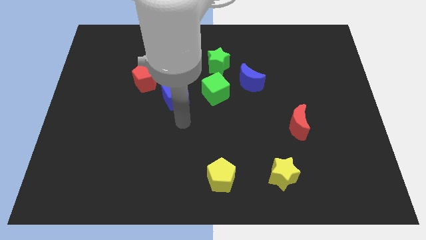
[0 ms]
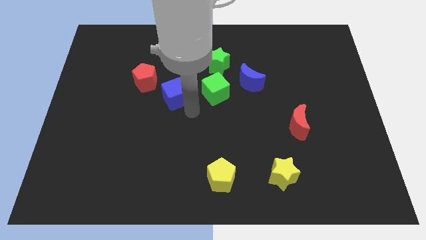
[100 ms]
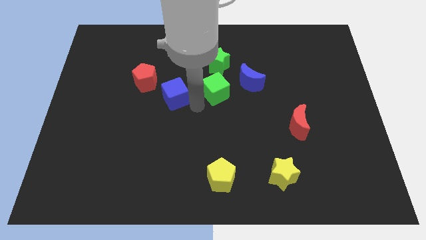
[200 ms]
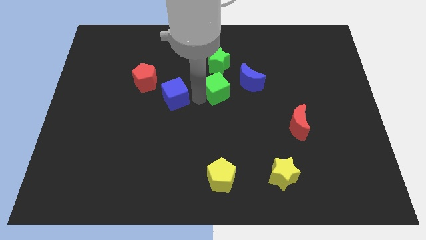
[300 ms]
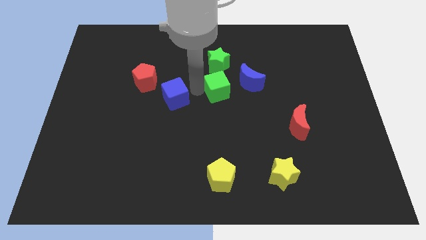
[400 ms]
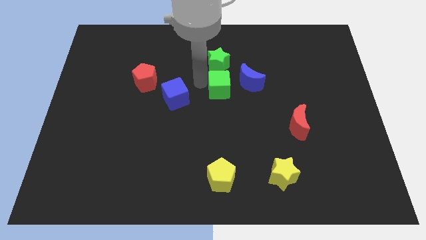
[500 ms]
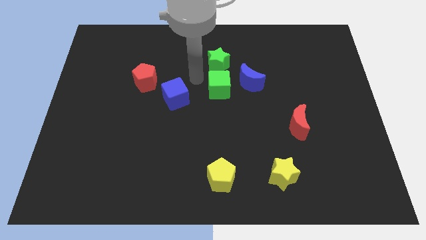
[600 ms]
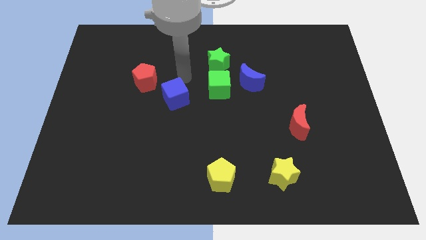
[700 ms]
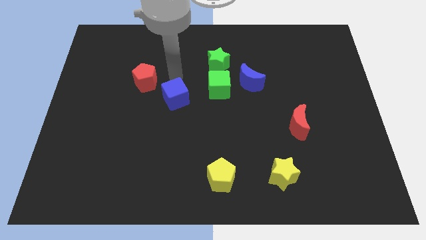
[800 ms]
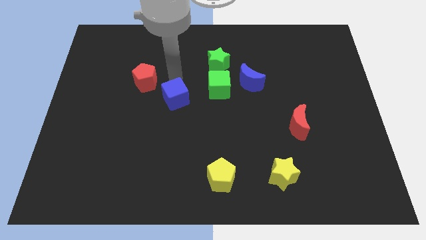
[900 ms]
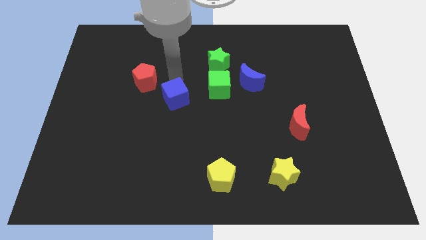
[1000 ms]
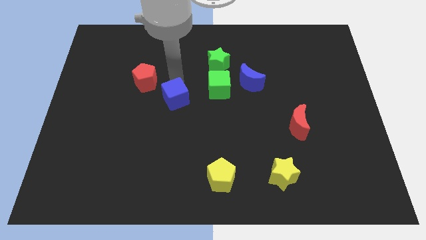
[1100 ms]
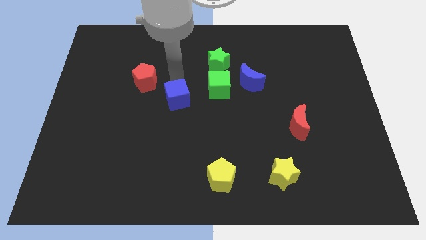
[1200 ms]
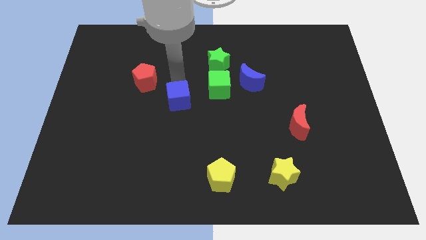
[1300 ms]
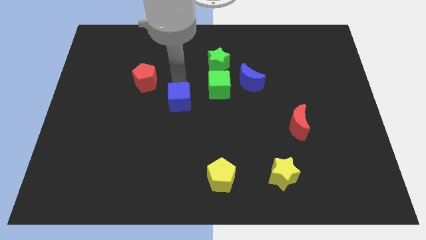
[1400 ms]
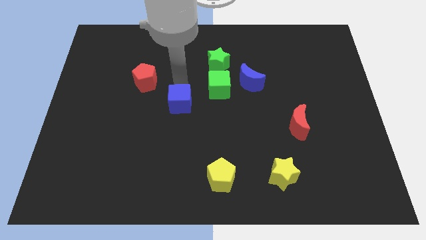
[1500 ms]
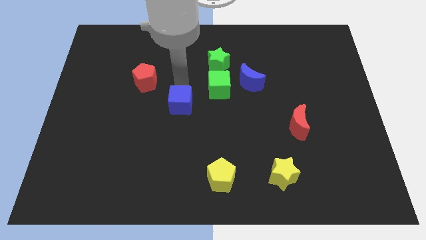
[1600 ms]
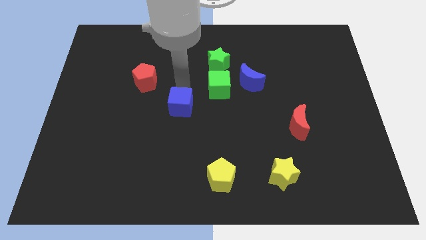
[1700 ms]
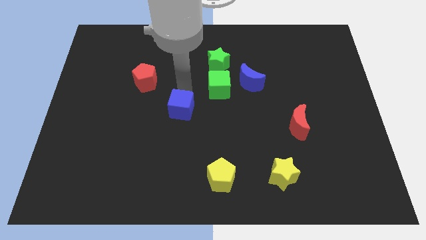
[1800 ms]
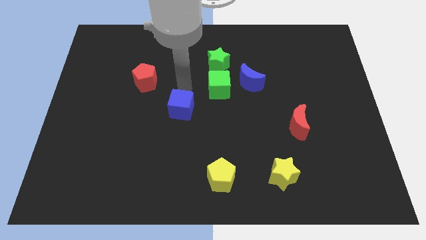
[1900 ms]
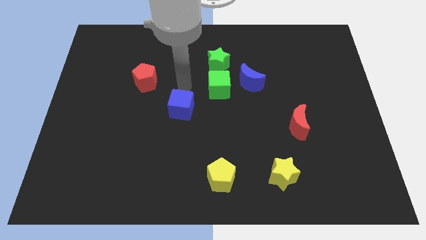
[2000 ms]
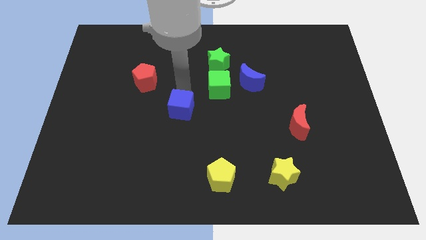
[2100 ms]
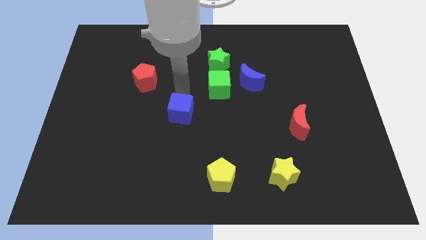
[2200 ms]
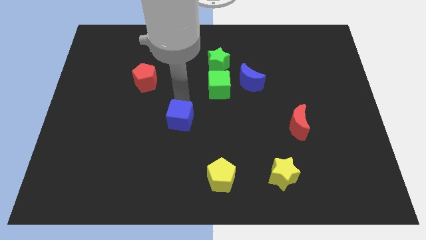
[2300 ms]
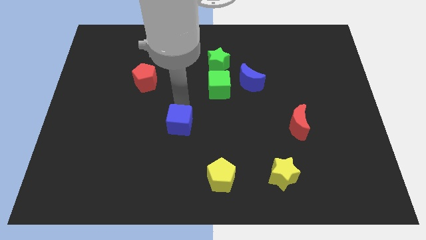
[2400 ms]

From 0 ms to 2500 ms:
move the blue cube downwards a bit

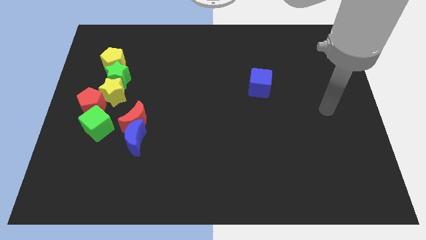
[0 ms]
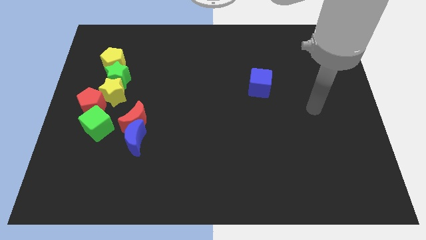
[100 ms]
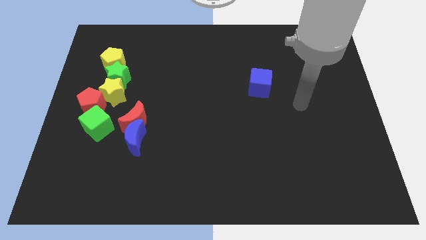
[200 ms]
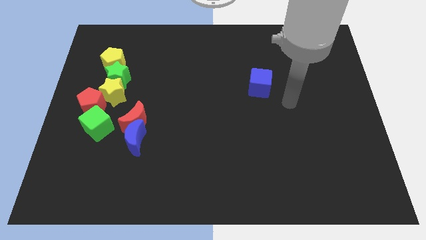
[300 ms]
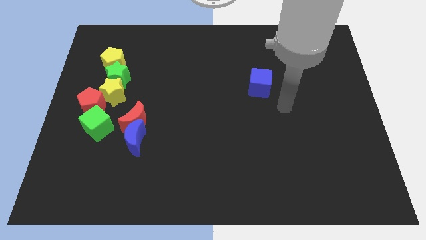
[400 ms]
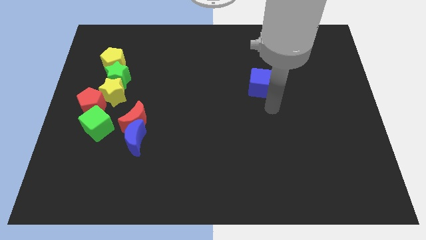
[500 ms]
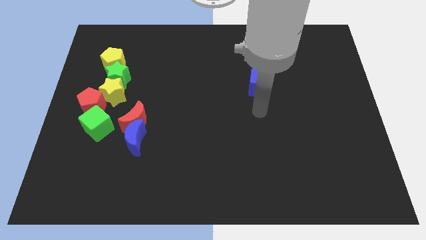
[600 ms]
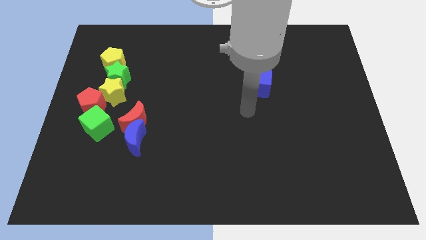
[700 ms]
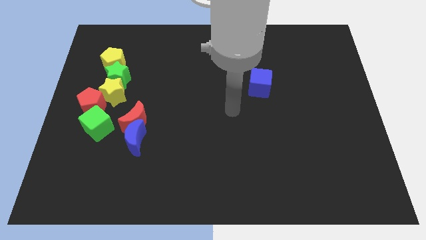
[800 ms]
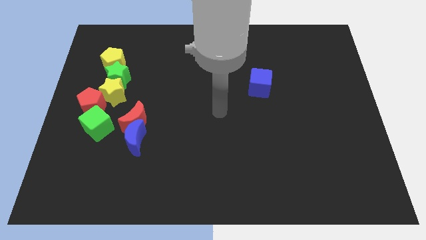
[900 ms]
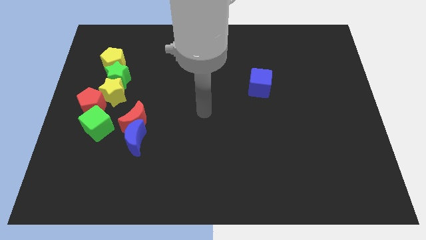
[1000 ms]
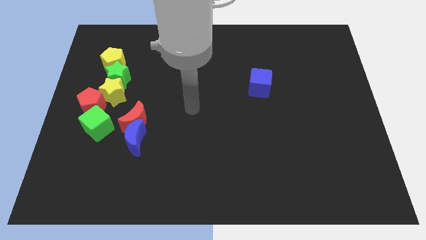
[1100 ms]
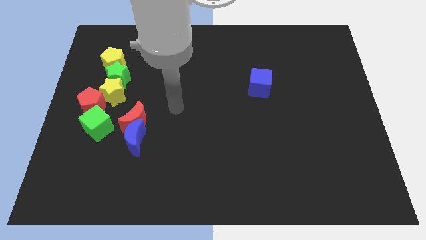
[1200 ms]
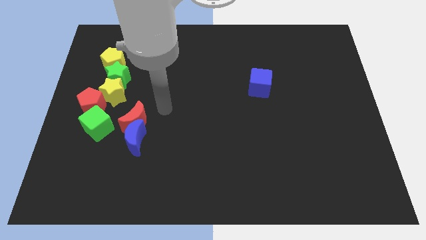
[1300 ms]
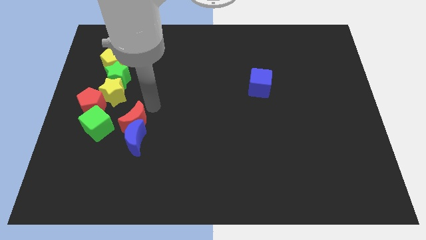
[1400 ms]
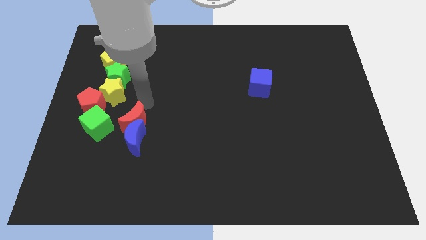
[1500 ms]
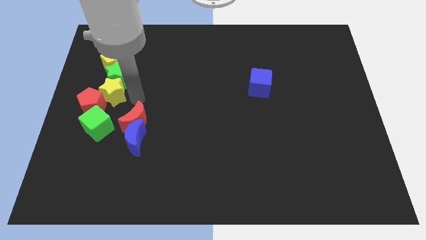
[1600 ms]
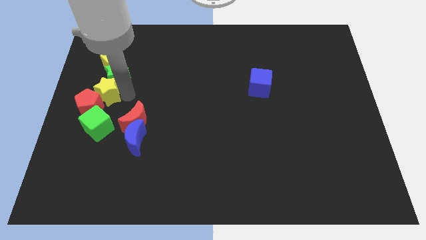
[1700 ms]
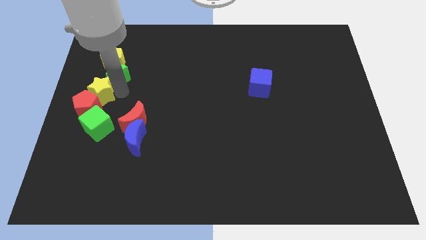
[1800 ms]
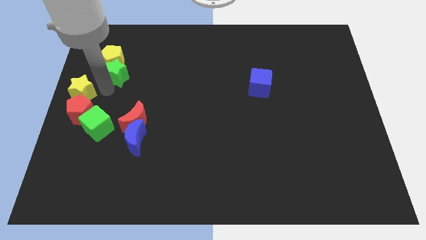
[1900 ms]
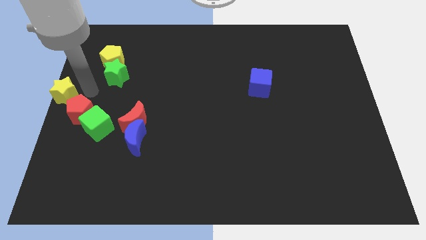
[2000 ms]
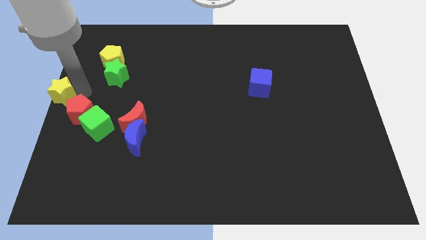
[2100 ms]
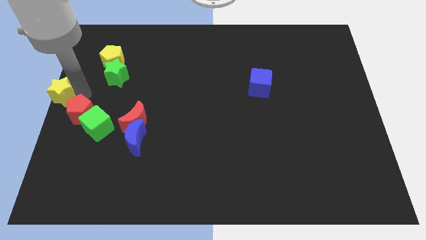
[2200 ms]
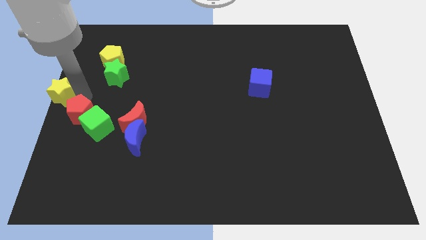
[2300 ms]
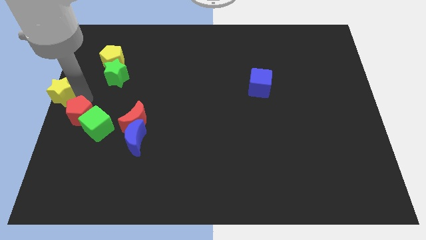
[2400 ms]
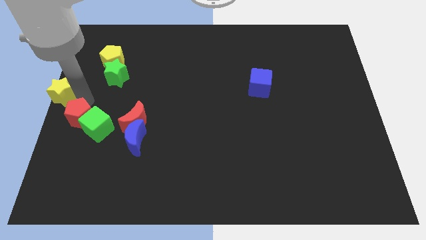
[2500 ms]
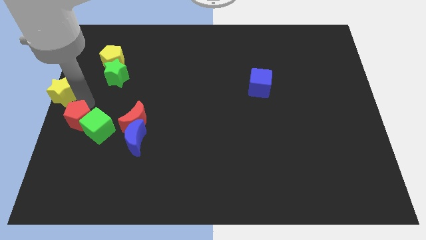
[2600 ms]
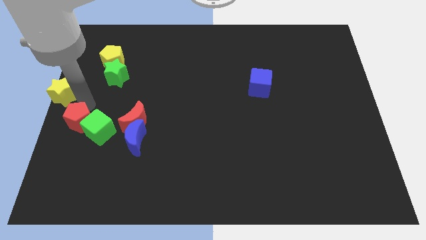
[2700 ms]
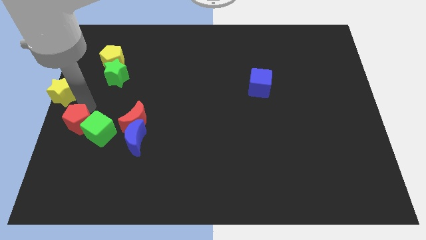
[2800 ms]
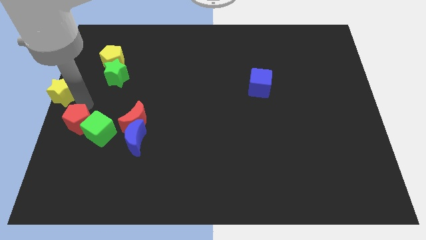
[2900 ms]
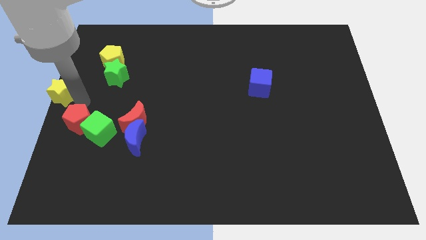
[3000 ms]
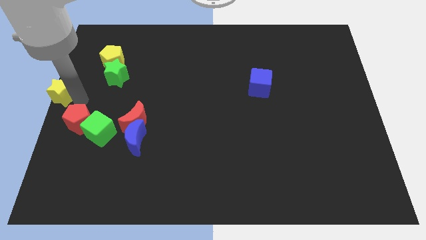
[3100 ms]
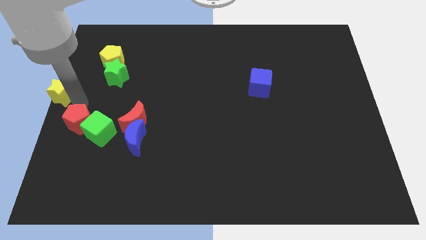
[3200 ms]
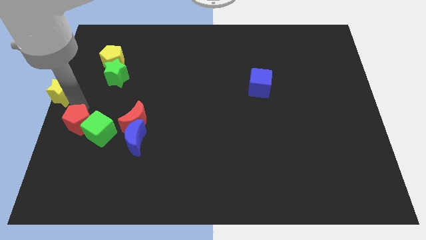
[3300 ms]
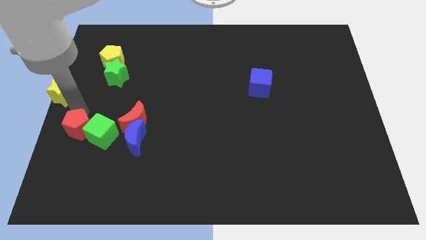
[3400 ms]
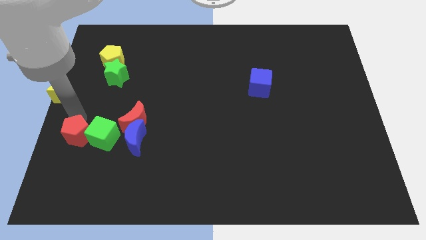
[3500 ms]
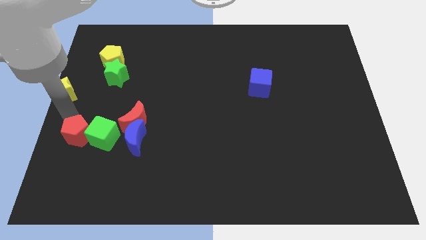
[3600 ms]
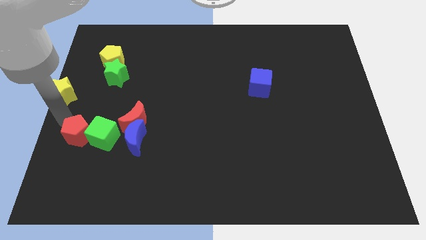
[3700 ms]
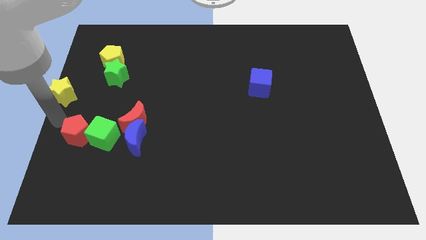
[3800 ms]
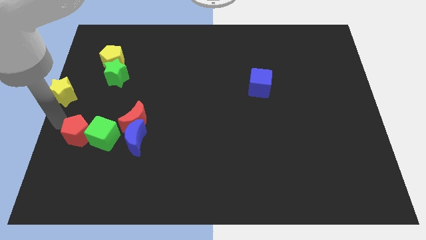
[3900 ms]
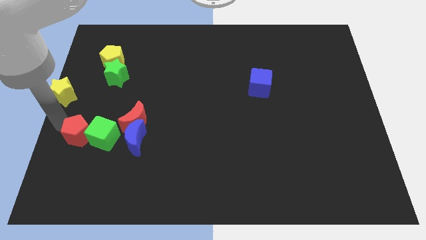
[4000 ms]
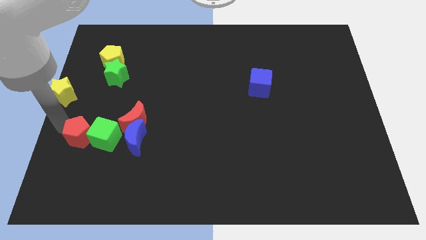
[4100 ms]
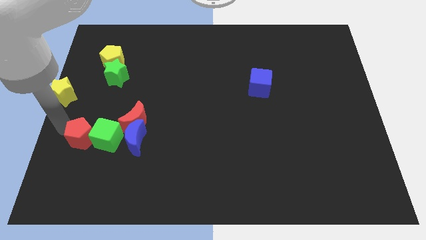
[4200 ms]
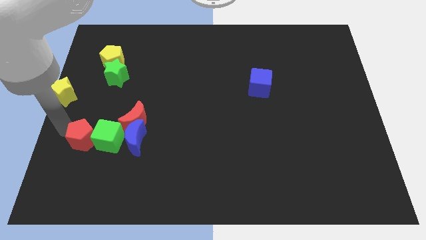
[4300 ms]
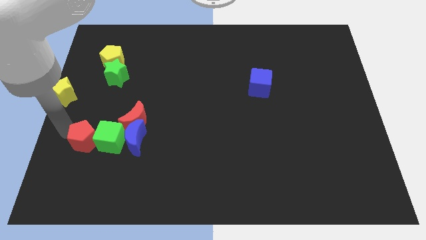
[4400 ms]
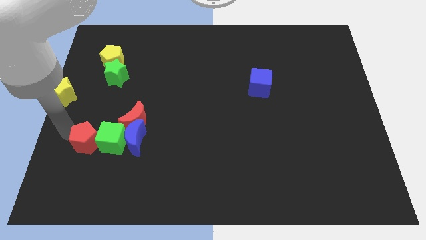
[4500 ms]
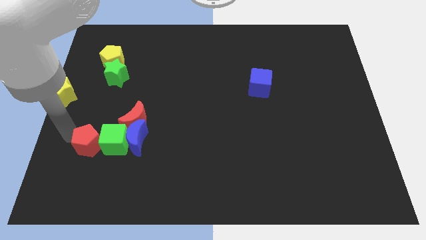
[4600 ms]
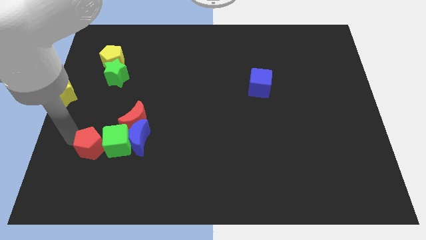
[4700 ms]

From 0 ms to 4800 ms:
move the red pentagon a little downwards and to the right

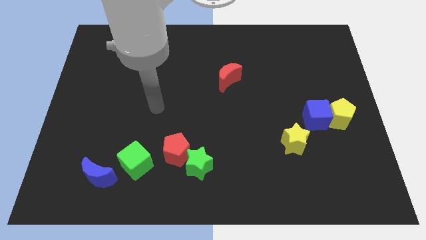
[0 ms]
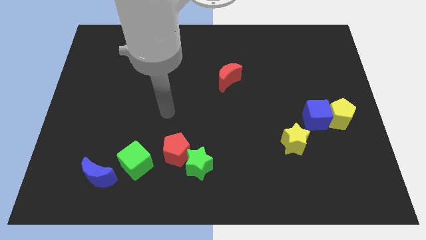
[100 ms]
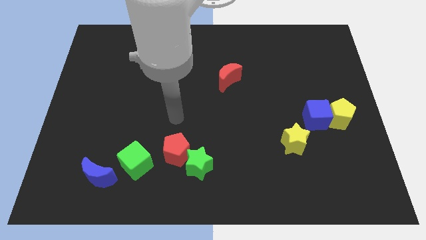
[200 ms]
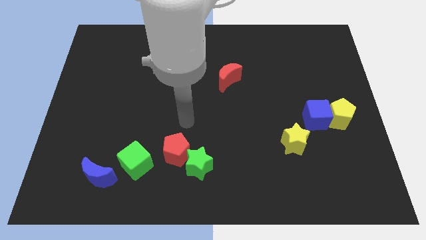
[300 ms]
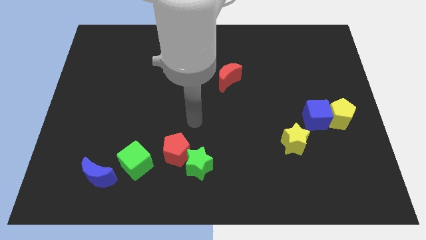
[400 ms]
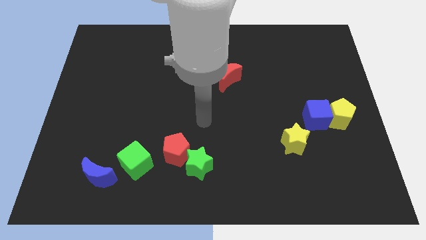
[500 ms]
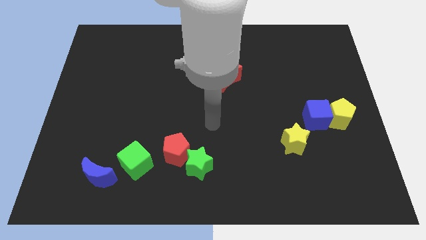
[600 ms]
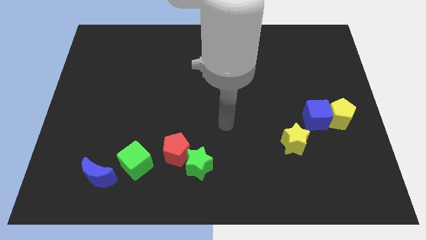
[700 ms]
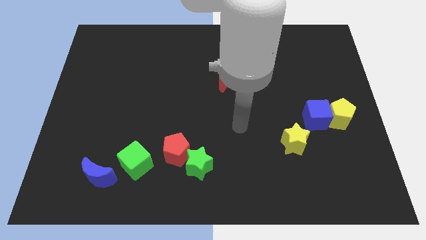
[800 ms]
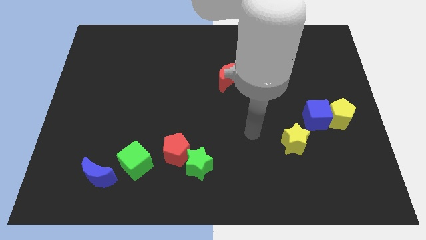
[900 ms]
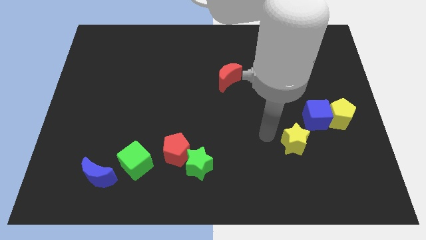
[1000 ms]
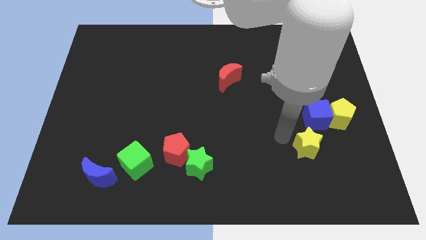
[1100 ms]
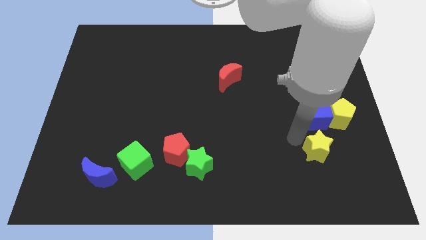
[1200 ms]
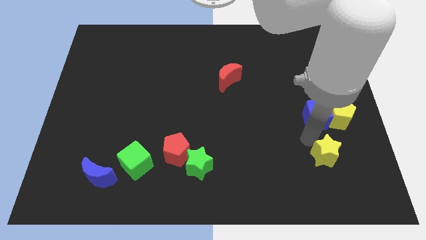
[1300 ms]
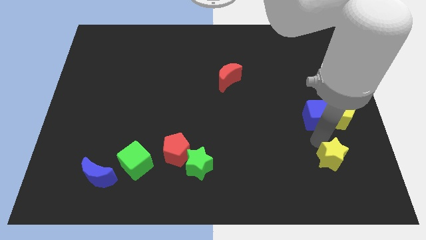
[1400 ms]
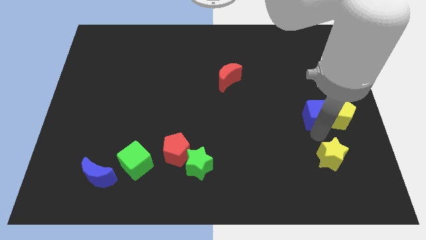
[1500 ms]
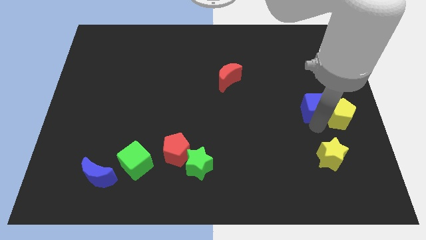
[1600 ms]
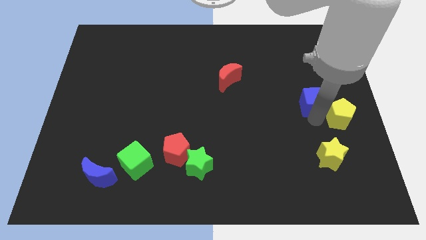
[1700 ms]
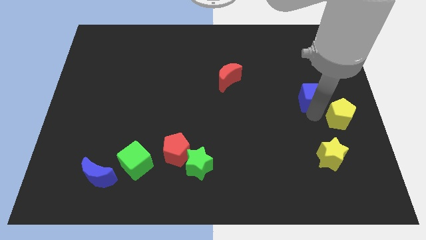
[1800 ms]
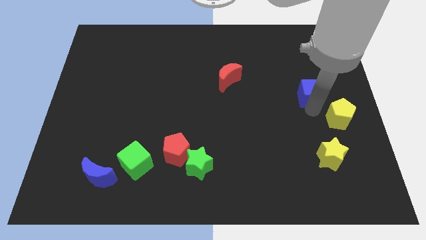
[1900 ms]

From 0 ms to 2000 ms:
slide the blue cube upwards slightly
